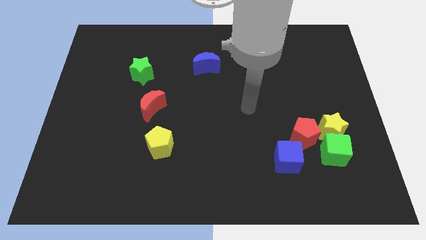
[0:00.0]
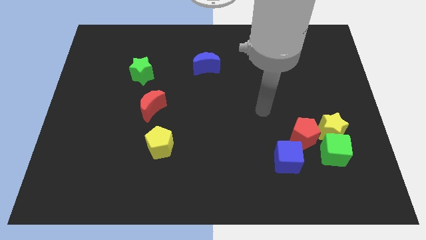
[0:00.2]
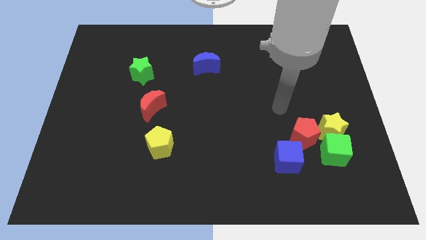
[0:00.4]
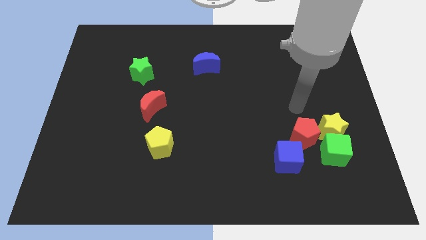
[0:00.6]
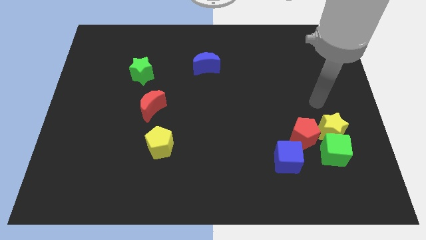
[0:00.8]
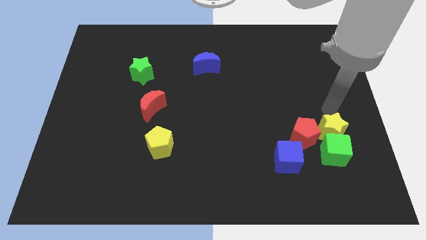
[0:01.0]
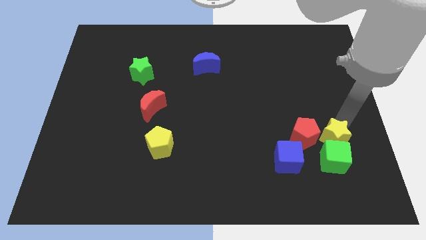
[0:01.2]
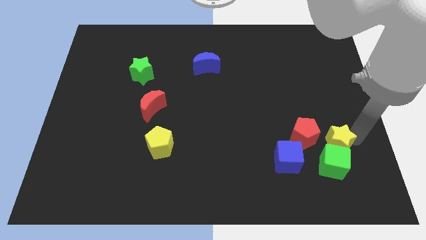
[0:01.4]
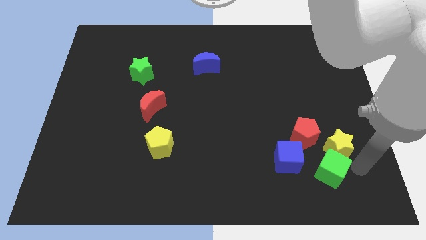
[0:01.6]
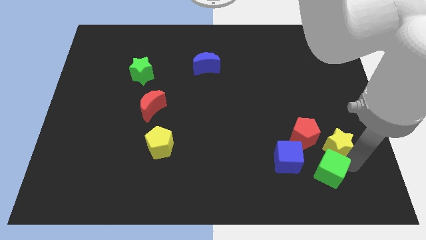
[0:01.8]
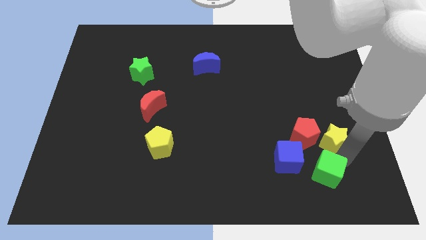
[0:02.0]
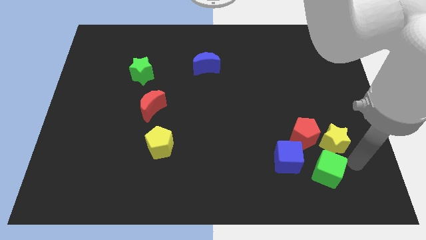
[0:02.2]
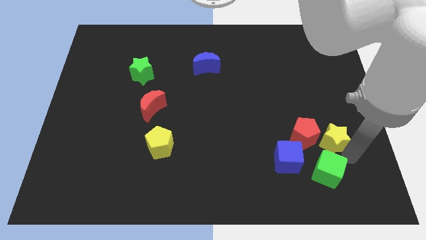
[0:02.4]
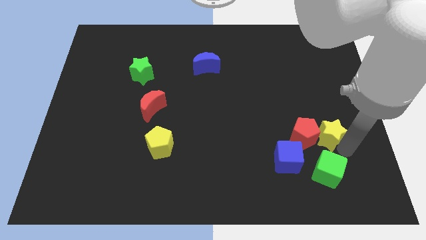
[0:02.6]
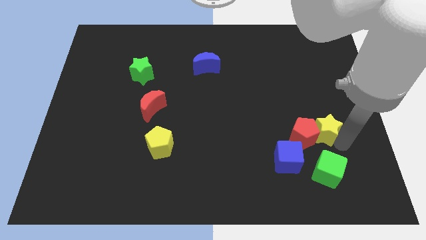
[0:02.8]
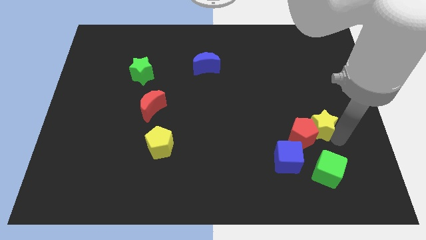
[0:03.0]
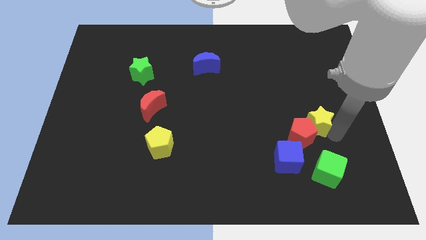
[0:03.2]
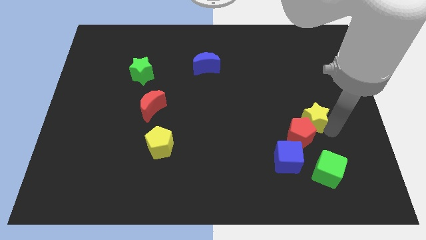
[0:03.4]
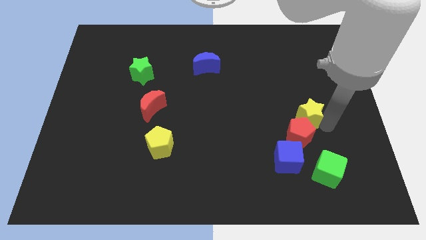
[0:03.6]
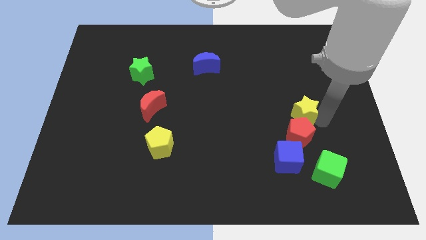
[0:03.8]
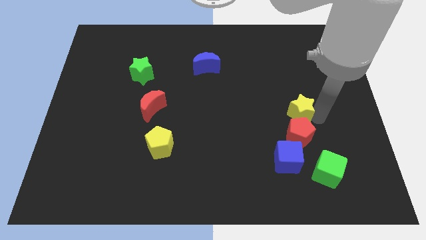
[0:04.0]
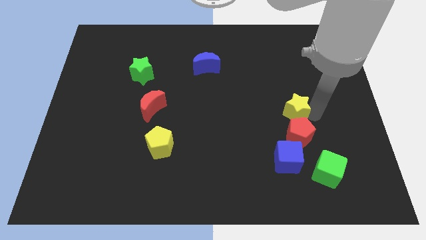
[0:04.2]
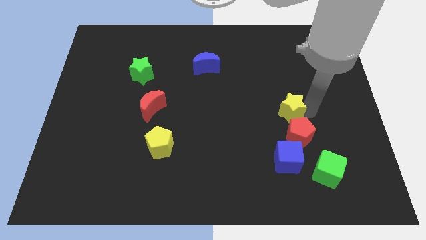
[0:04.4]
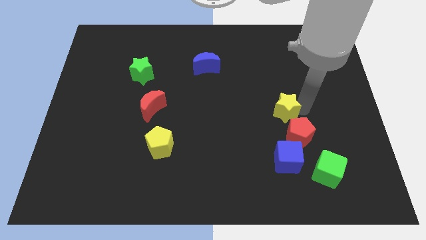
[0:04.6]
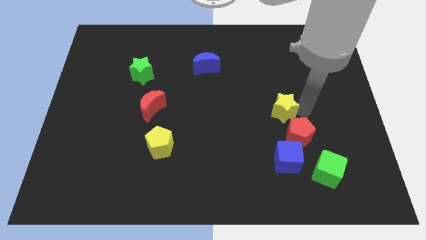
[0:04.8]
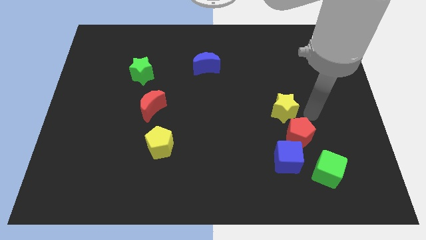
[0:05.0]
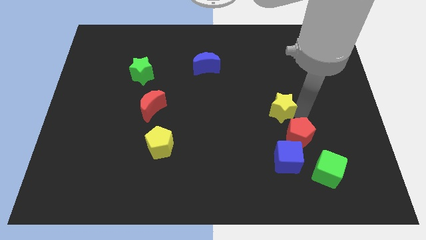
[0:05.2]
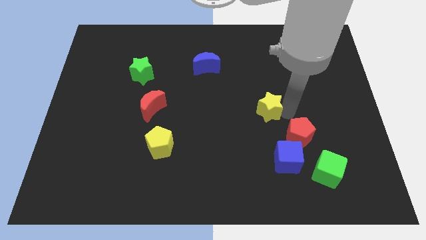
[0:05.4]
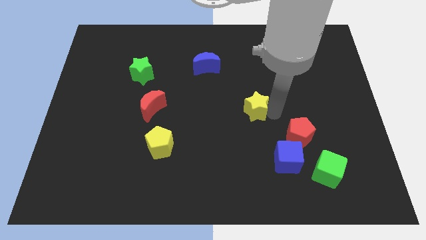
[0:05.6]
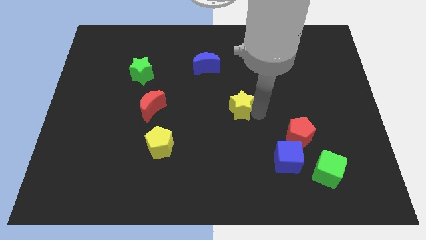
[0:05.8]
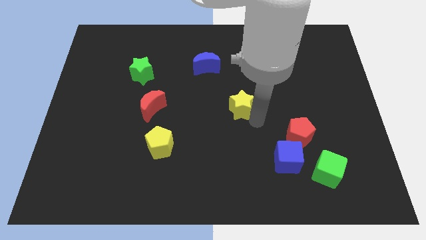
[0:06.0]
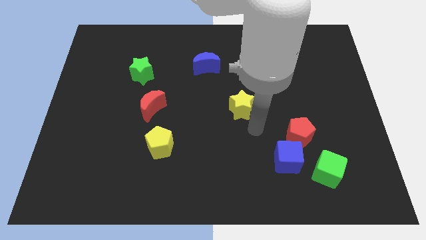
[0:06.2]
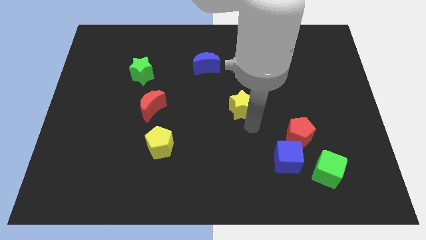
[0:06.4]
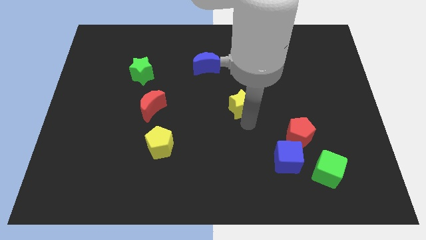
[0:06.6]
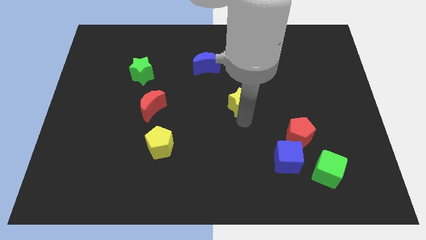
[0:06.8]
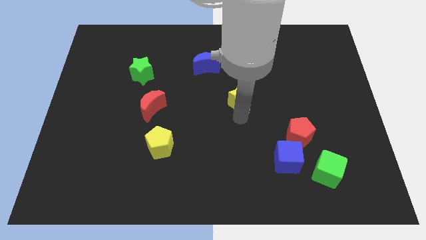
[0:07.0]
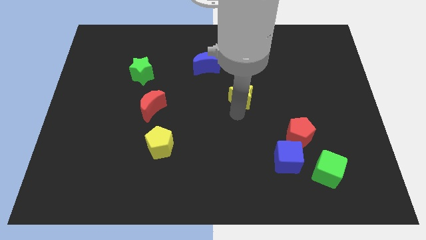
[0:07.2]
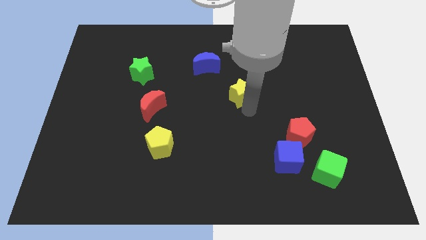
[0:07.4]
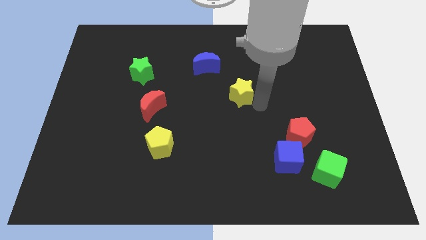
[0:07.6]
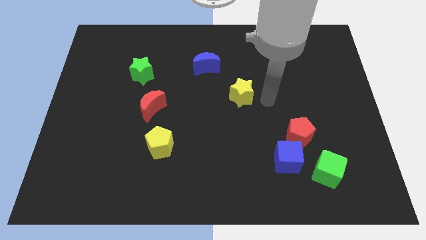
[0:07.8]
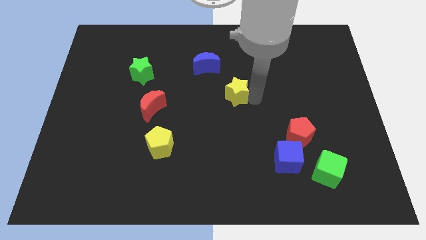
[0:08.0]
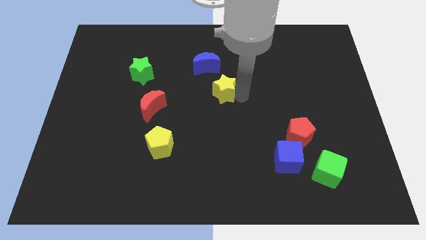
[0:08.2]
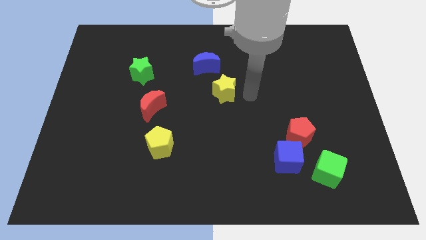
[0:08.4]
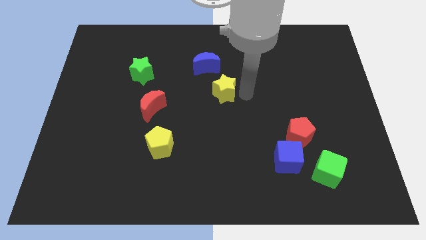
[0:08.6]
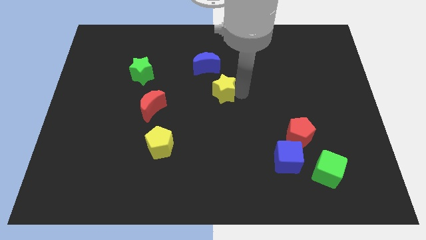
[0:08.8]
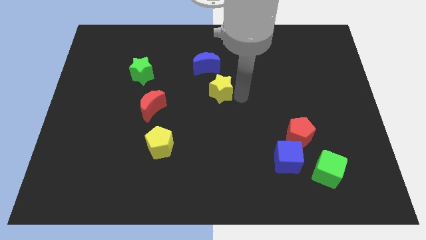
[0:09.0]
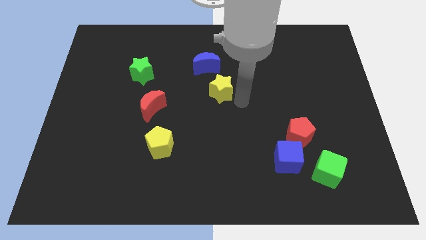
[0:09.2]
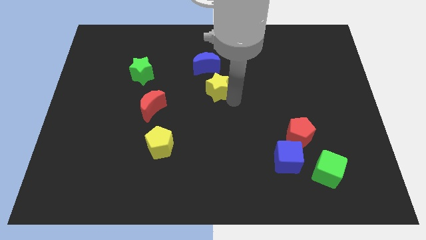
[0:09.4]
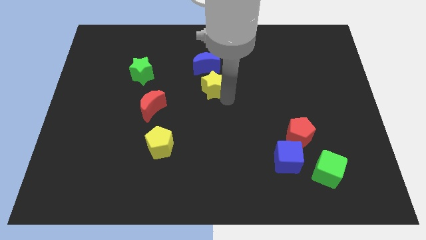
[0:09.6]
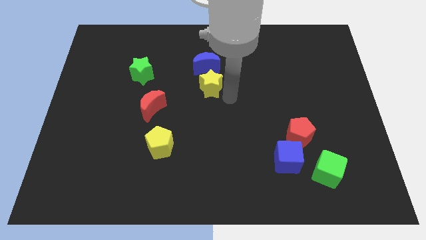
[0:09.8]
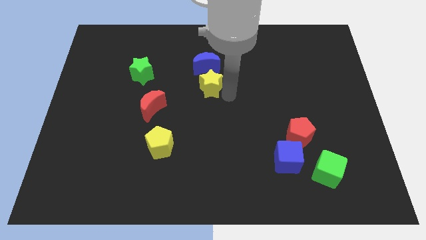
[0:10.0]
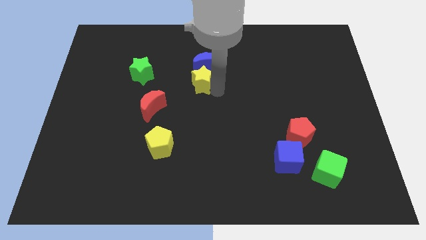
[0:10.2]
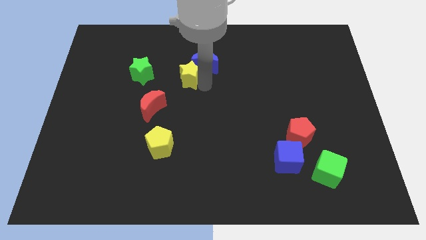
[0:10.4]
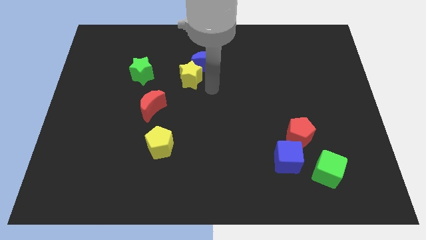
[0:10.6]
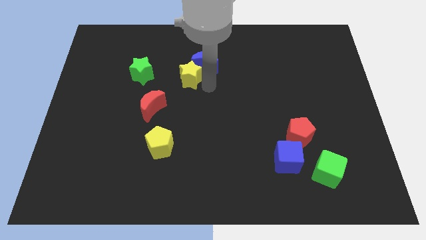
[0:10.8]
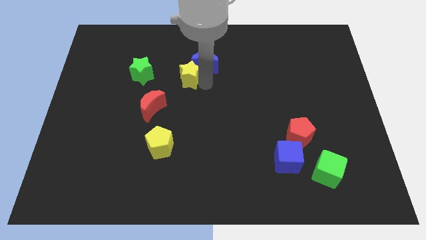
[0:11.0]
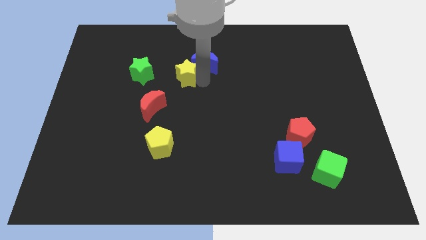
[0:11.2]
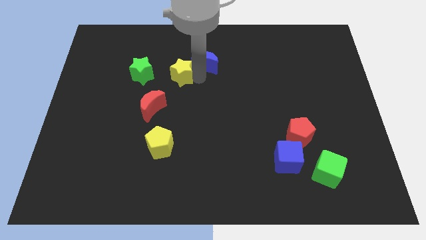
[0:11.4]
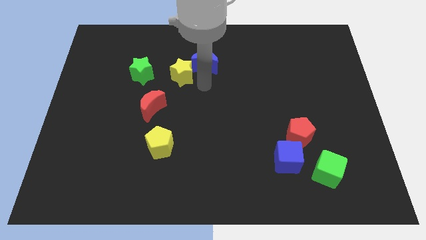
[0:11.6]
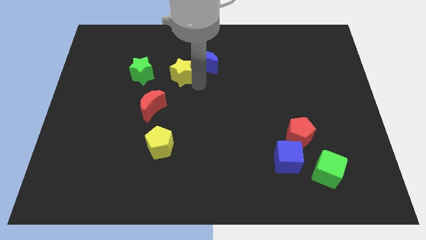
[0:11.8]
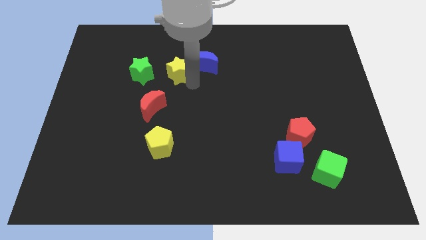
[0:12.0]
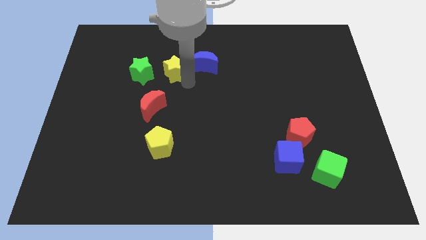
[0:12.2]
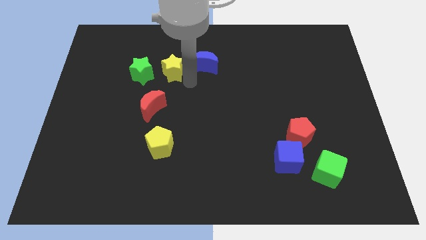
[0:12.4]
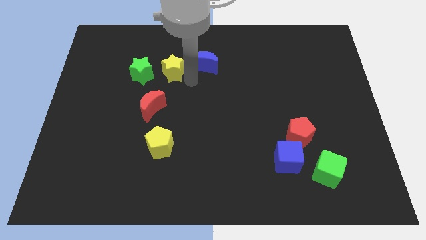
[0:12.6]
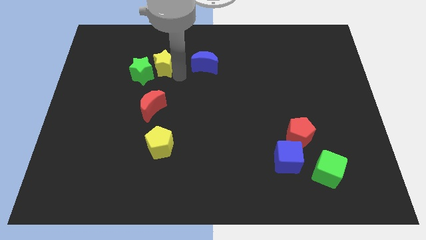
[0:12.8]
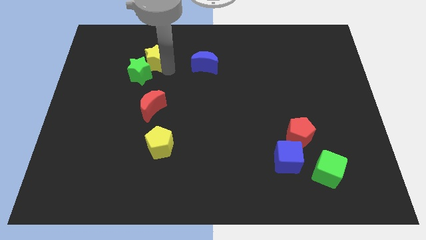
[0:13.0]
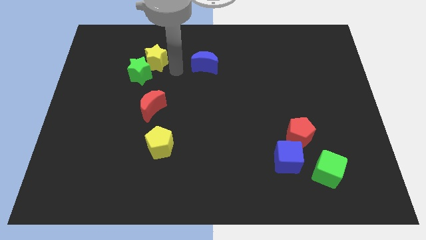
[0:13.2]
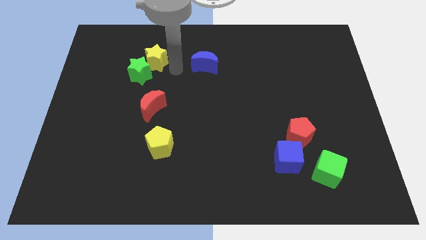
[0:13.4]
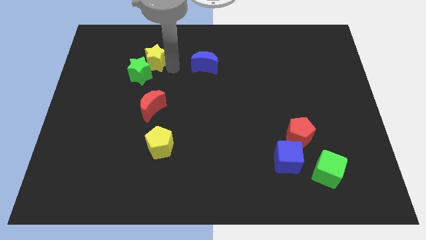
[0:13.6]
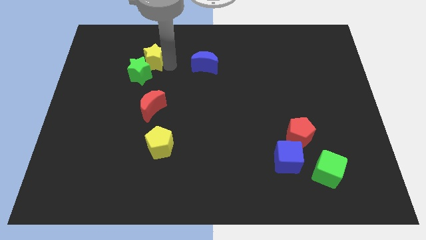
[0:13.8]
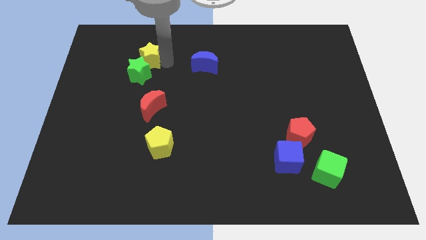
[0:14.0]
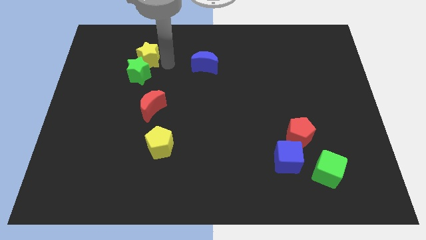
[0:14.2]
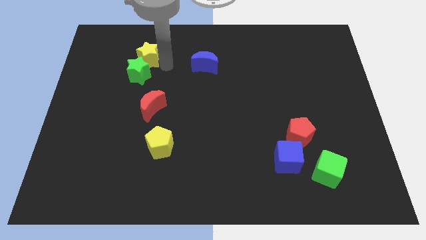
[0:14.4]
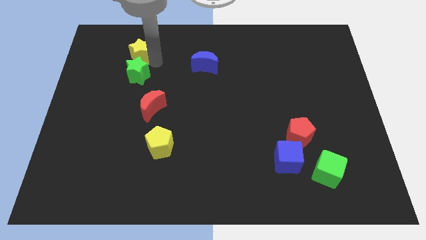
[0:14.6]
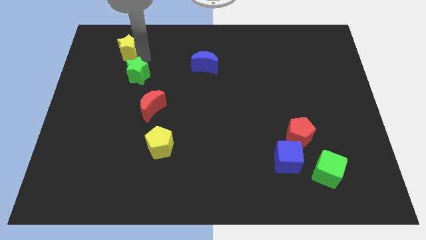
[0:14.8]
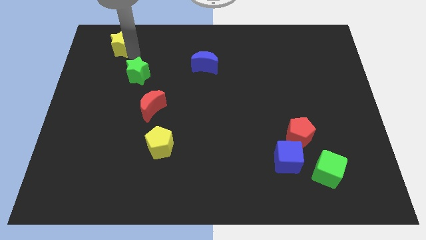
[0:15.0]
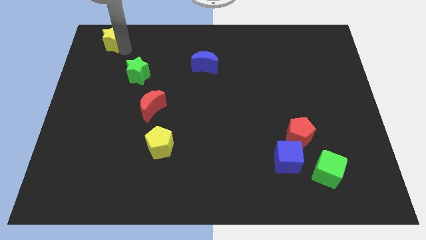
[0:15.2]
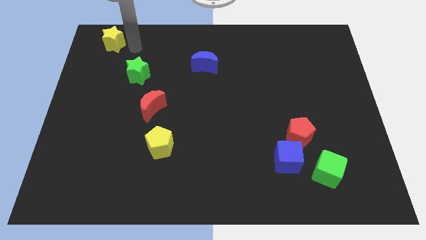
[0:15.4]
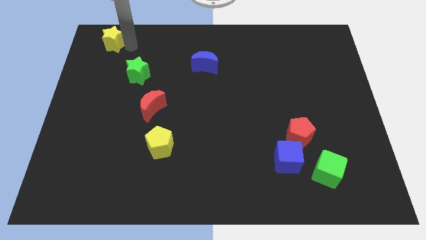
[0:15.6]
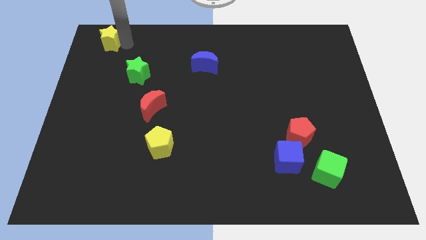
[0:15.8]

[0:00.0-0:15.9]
move the yellow star to the top left of the board
